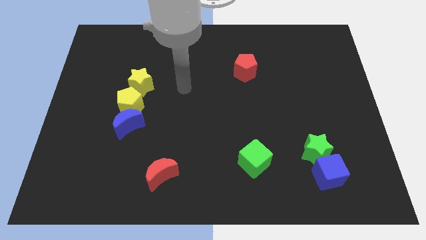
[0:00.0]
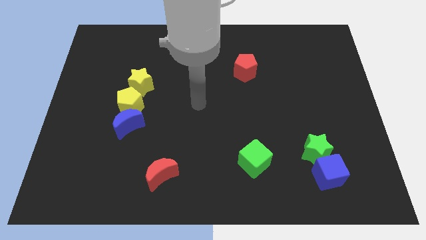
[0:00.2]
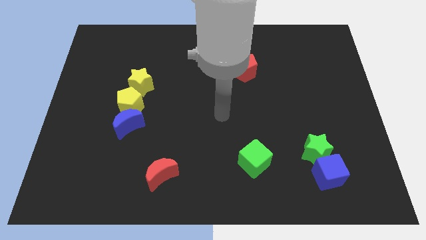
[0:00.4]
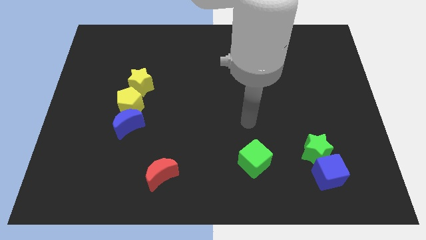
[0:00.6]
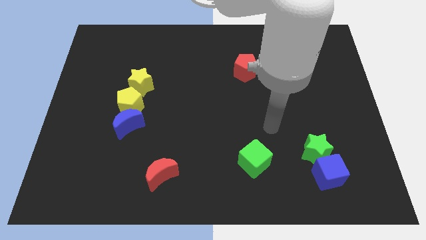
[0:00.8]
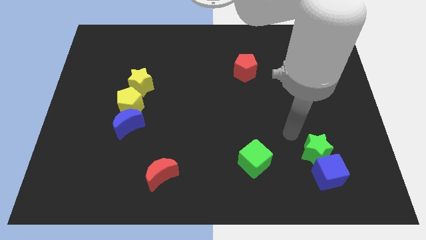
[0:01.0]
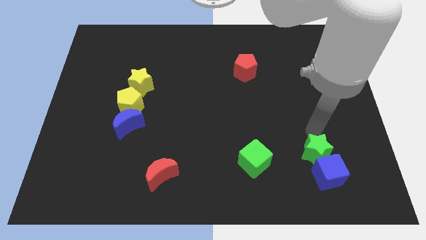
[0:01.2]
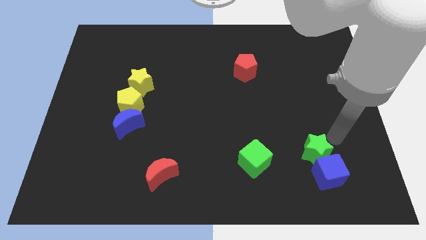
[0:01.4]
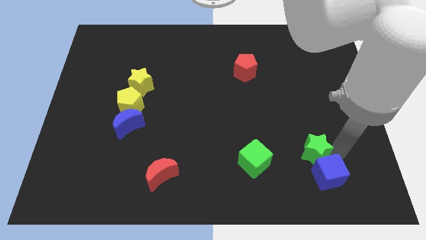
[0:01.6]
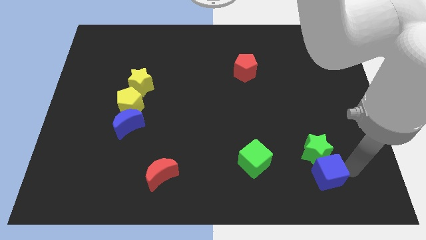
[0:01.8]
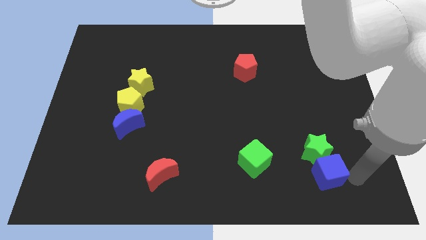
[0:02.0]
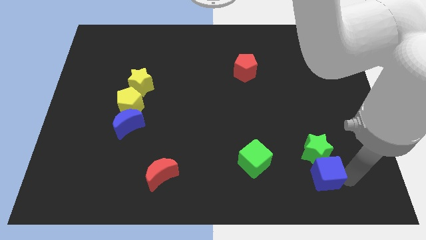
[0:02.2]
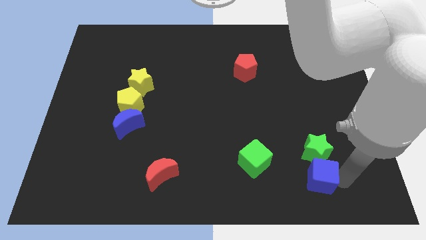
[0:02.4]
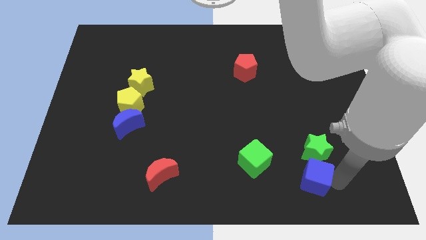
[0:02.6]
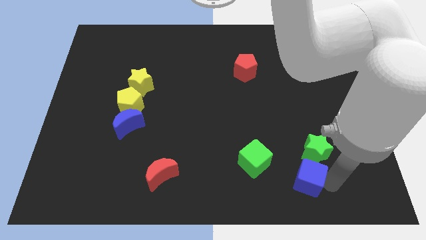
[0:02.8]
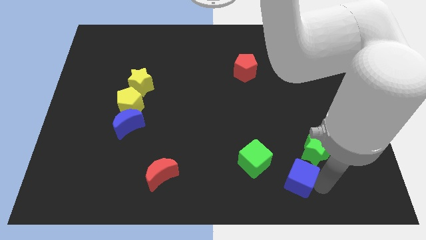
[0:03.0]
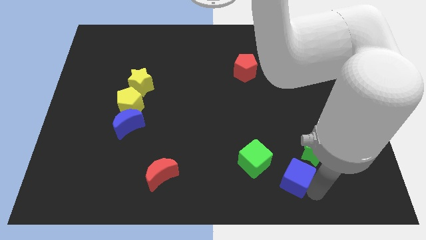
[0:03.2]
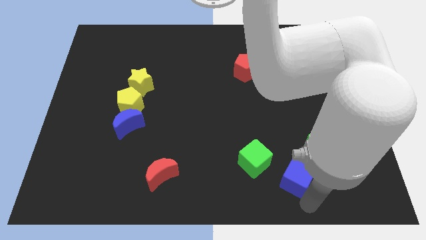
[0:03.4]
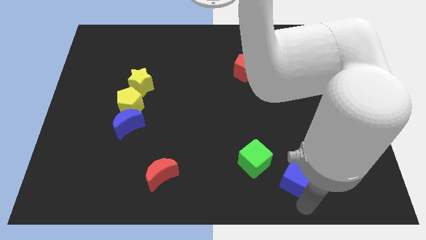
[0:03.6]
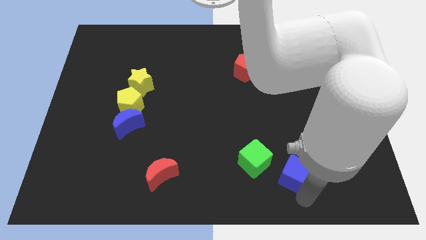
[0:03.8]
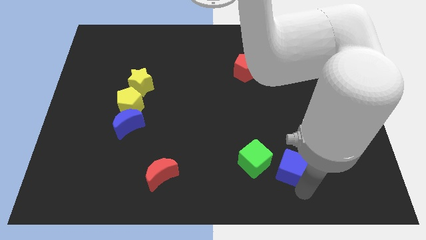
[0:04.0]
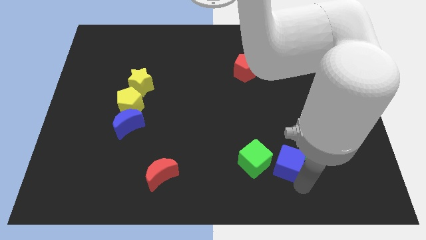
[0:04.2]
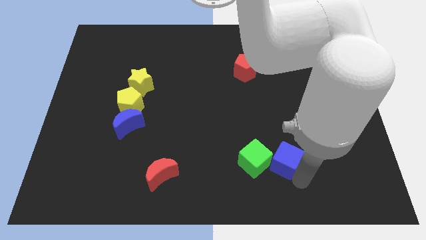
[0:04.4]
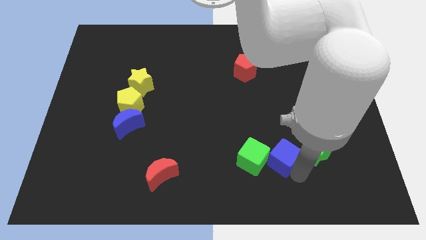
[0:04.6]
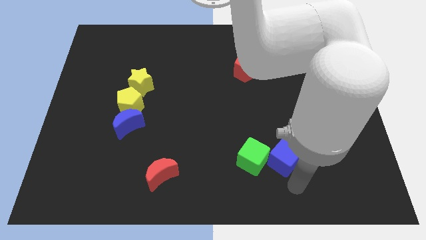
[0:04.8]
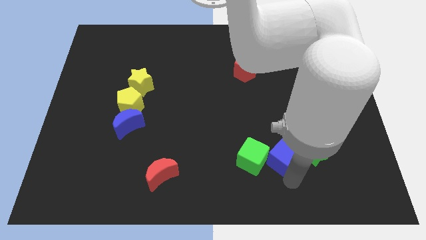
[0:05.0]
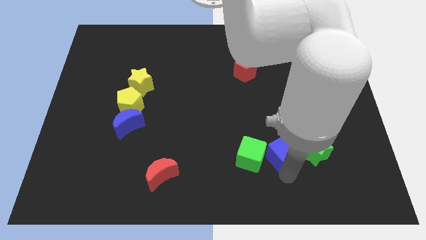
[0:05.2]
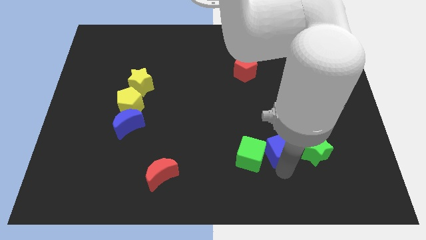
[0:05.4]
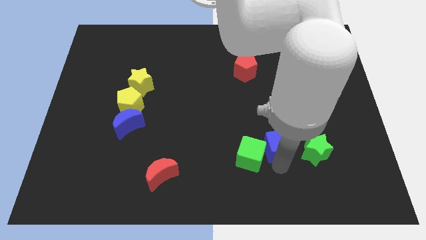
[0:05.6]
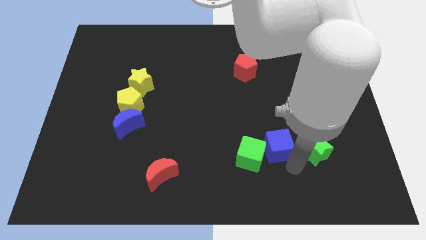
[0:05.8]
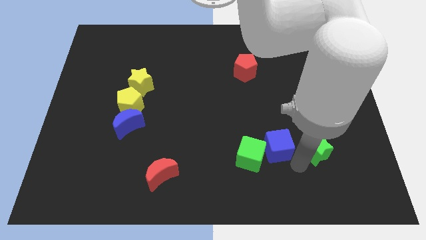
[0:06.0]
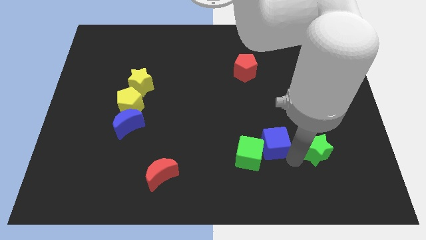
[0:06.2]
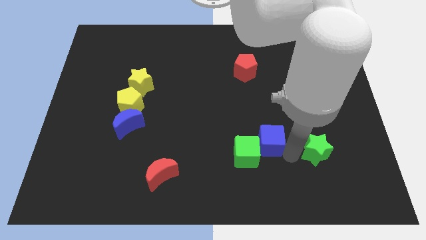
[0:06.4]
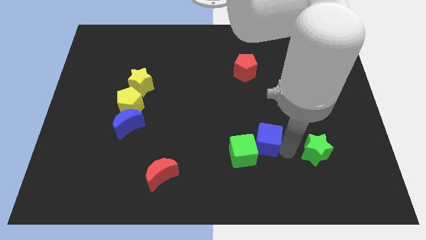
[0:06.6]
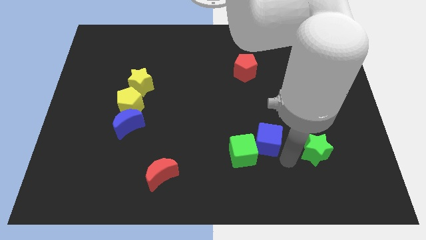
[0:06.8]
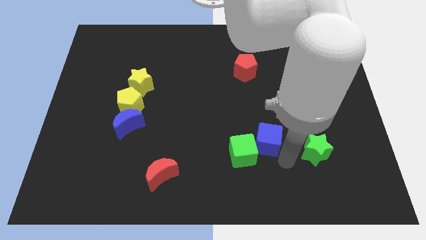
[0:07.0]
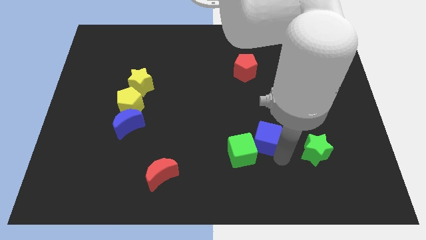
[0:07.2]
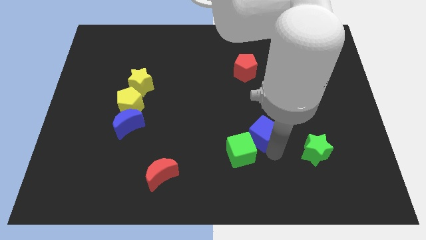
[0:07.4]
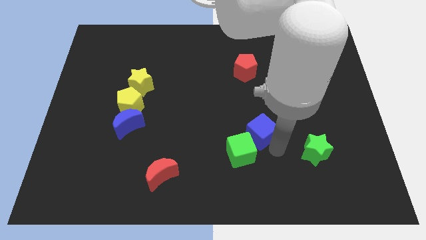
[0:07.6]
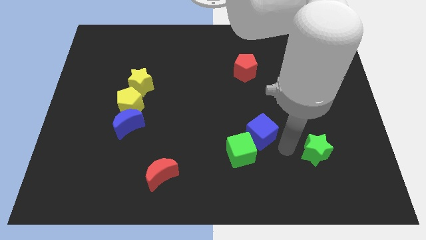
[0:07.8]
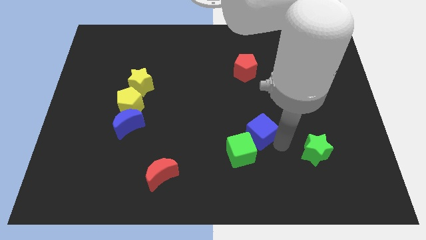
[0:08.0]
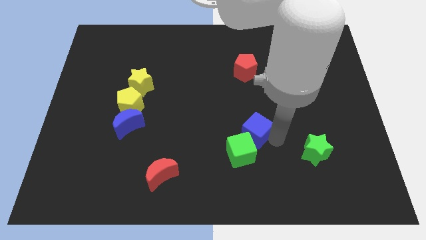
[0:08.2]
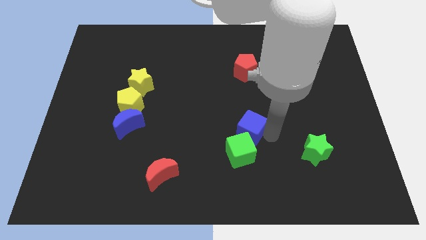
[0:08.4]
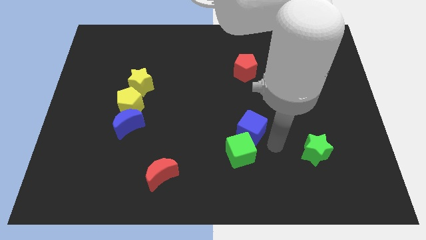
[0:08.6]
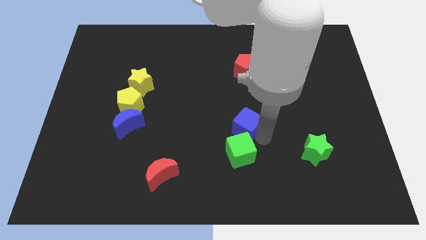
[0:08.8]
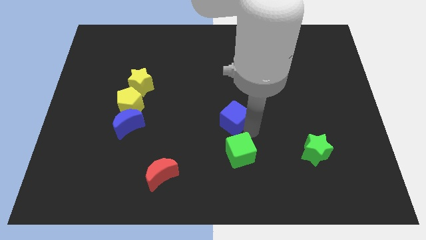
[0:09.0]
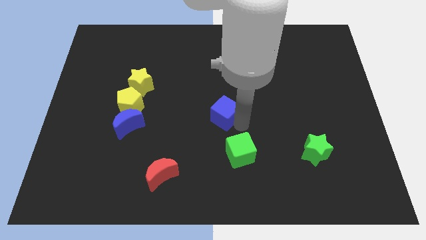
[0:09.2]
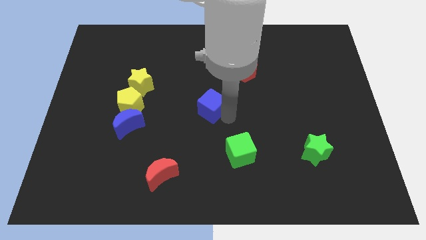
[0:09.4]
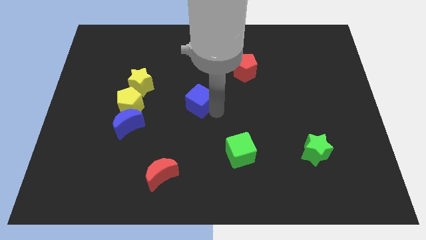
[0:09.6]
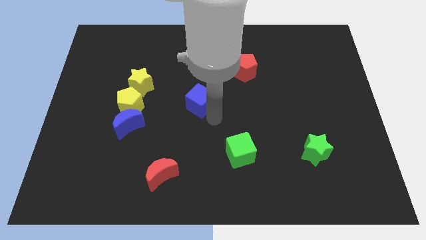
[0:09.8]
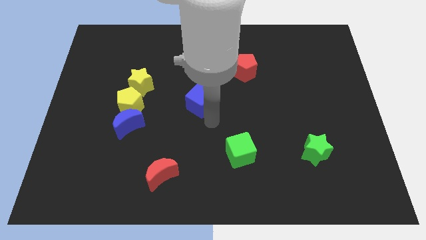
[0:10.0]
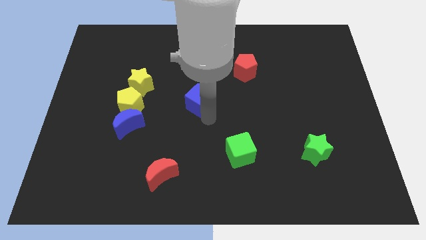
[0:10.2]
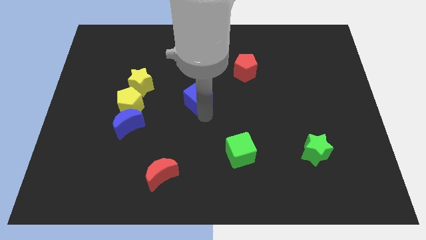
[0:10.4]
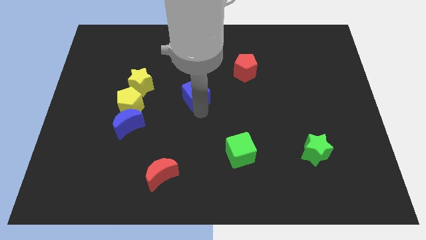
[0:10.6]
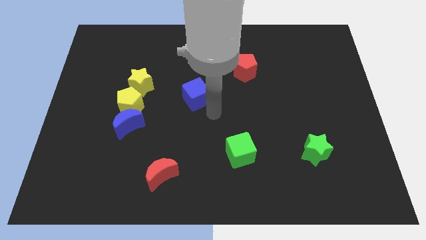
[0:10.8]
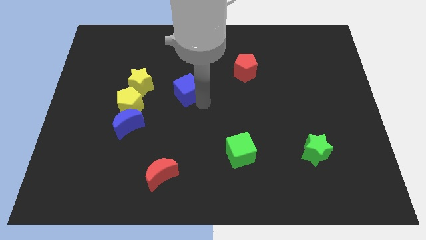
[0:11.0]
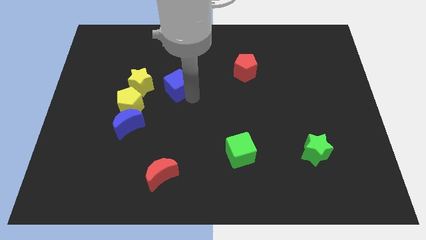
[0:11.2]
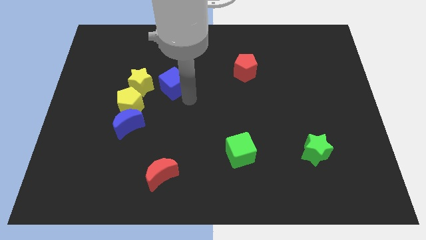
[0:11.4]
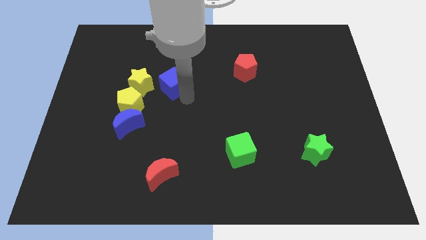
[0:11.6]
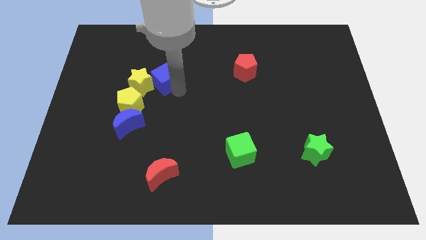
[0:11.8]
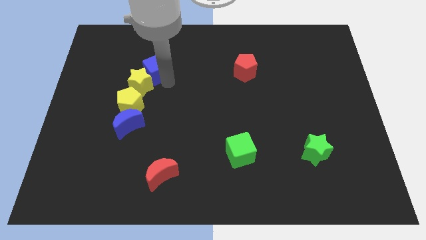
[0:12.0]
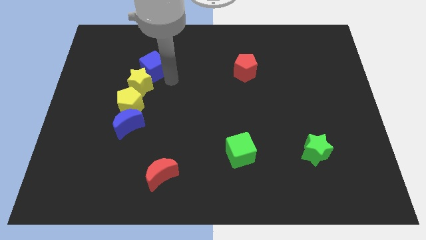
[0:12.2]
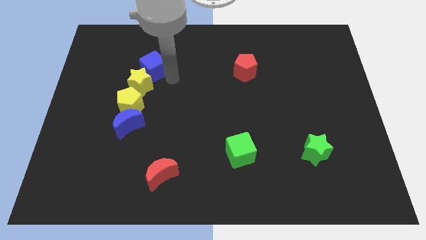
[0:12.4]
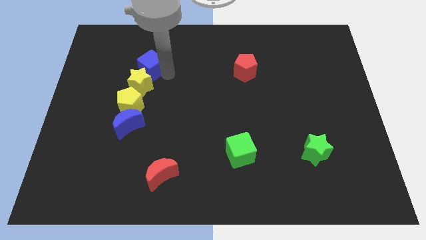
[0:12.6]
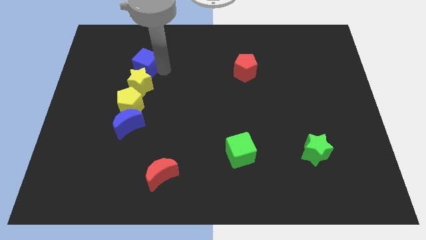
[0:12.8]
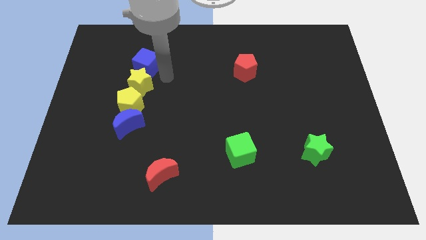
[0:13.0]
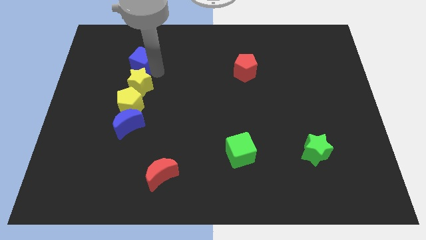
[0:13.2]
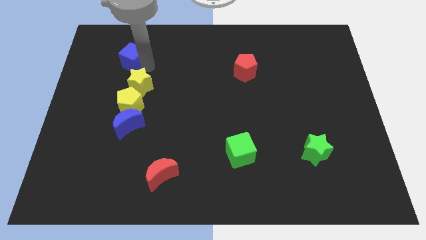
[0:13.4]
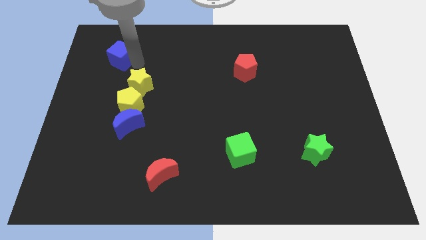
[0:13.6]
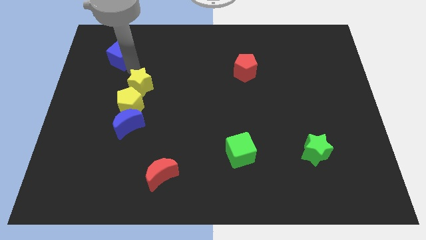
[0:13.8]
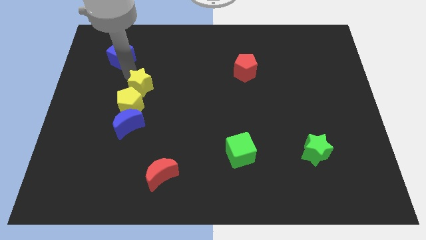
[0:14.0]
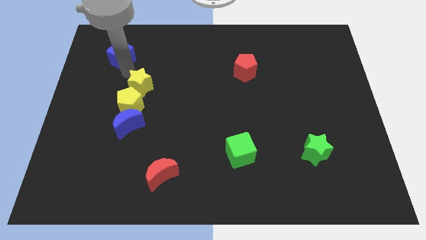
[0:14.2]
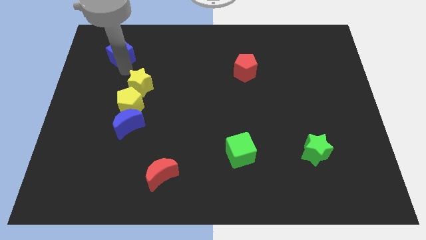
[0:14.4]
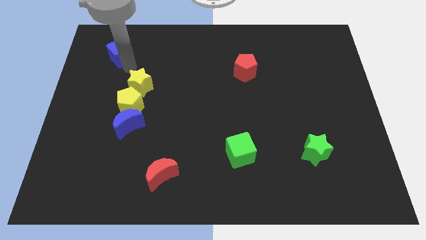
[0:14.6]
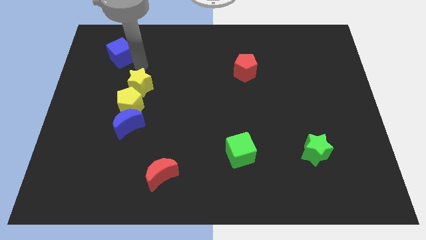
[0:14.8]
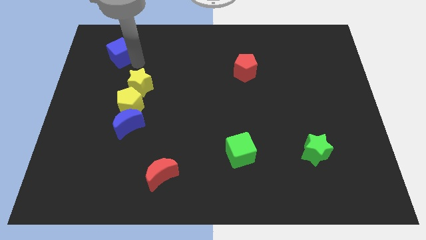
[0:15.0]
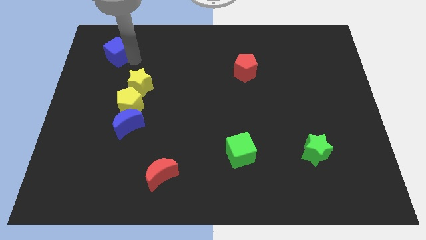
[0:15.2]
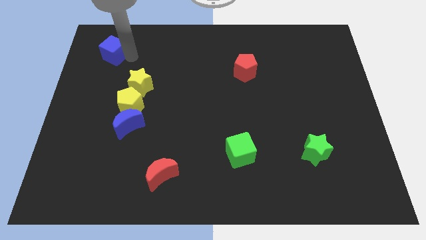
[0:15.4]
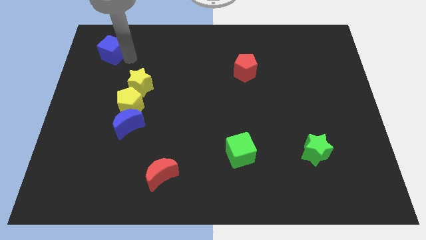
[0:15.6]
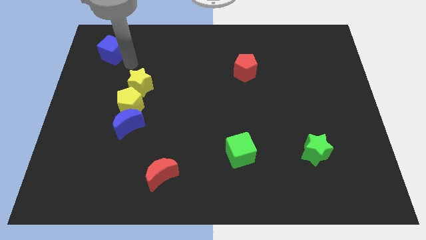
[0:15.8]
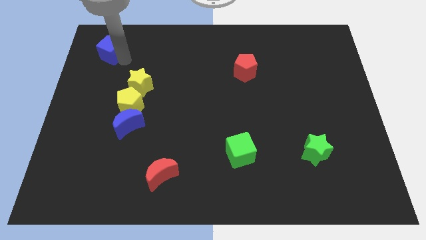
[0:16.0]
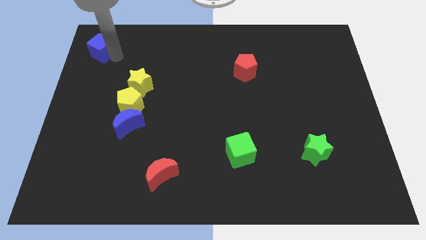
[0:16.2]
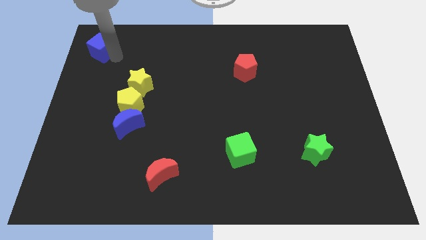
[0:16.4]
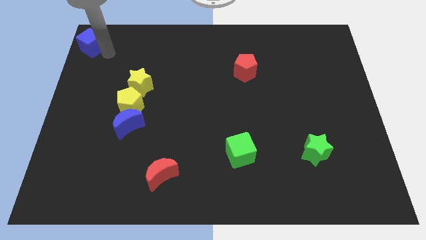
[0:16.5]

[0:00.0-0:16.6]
push the blue cube to the top left of the board
